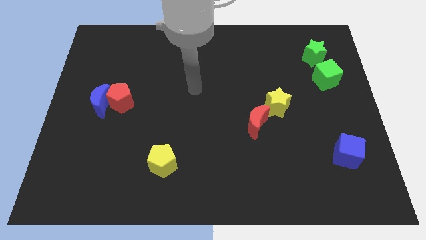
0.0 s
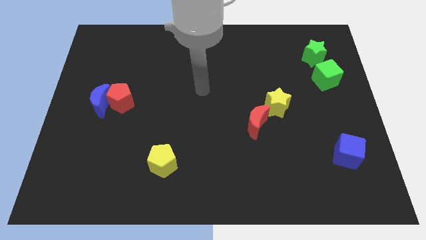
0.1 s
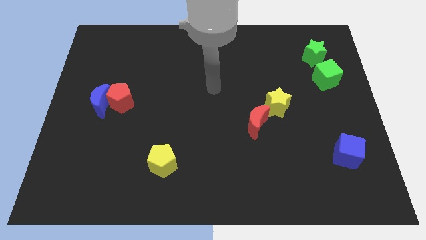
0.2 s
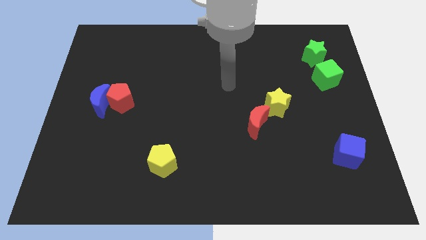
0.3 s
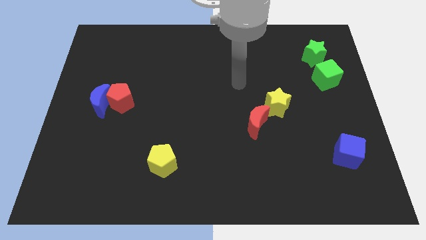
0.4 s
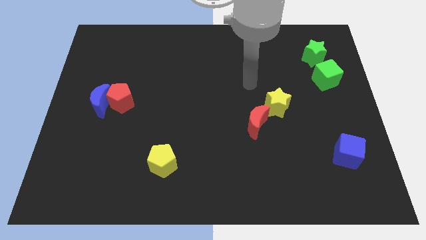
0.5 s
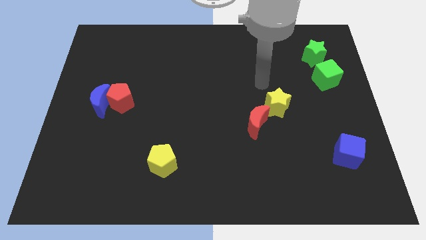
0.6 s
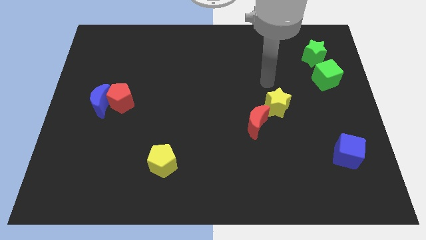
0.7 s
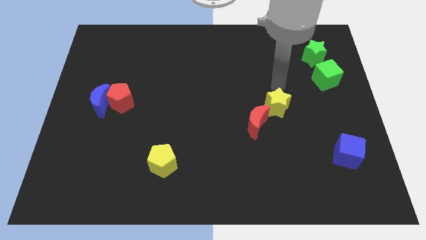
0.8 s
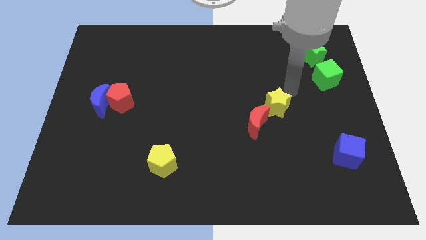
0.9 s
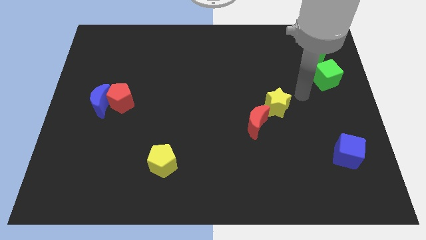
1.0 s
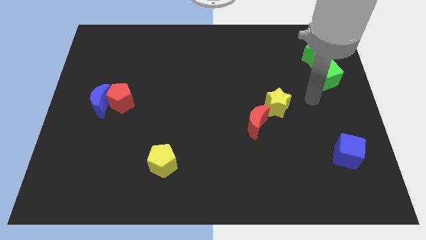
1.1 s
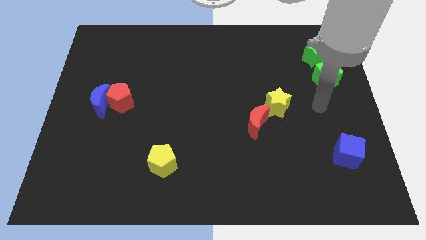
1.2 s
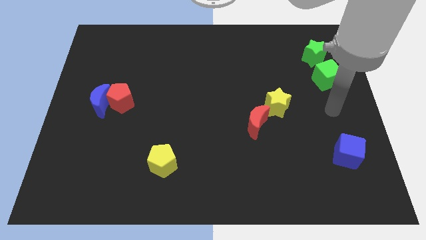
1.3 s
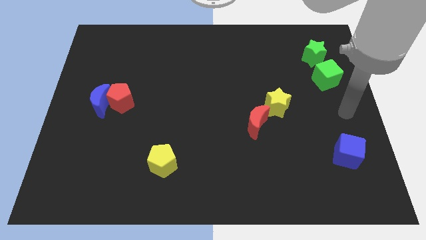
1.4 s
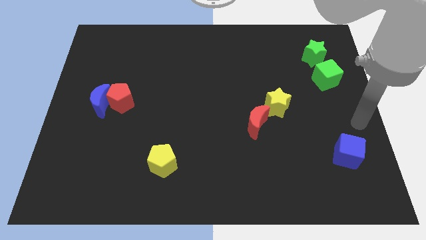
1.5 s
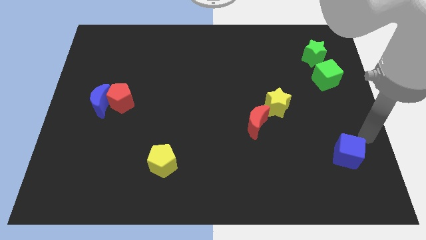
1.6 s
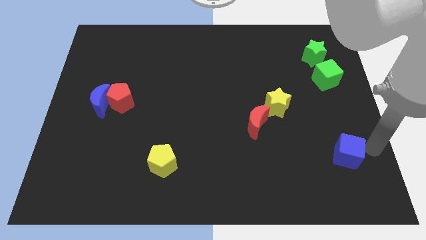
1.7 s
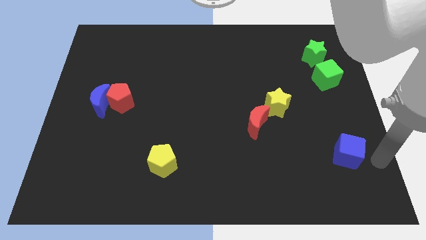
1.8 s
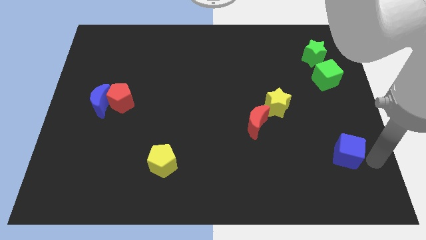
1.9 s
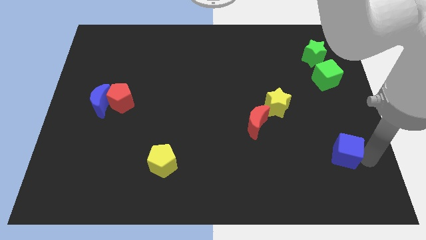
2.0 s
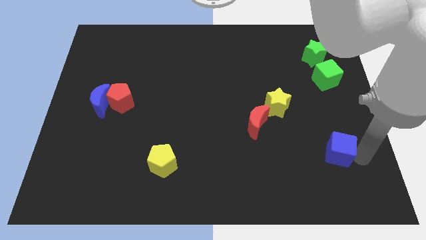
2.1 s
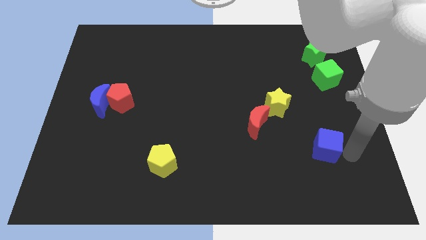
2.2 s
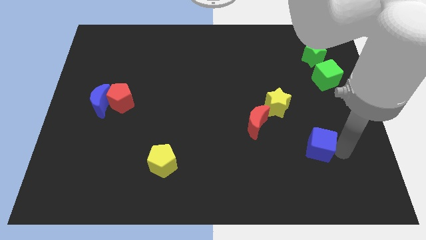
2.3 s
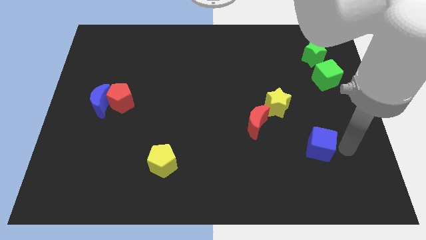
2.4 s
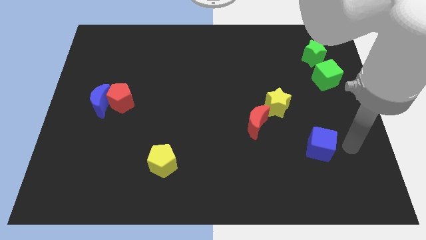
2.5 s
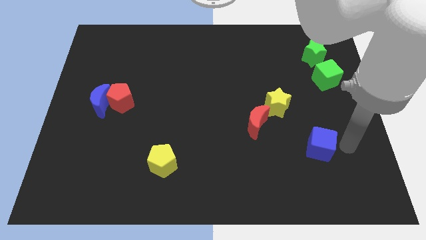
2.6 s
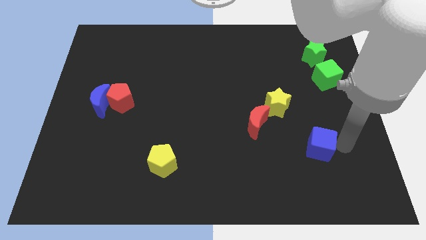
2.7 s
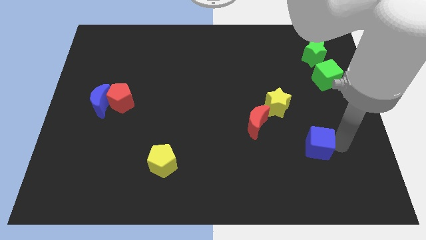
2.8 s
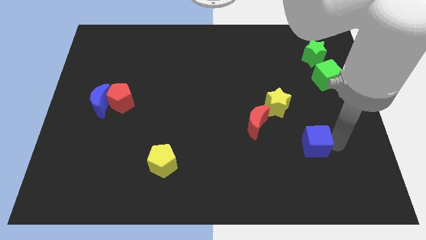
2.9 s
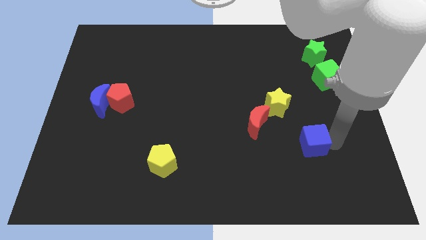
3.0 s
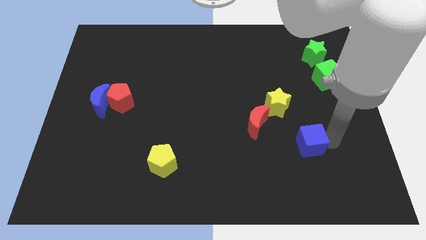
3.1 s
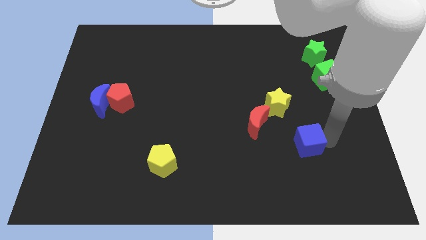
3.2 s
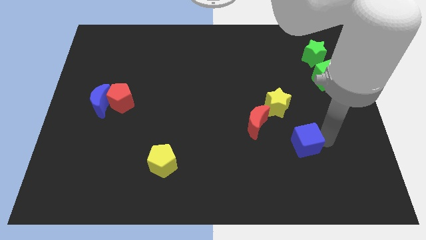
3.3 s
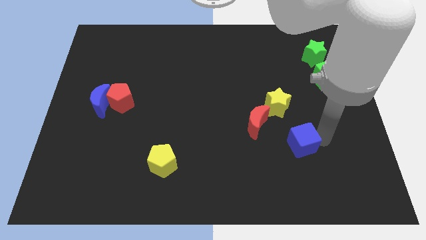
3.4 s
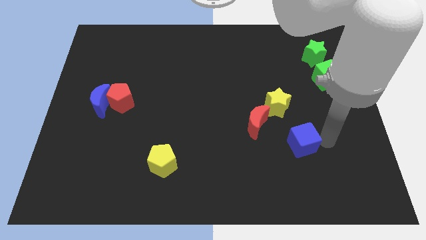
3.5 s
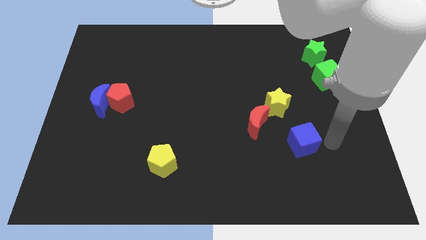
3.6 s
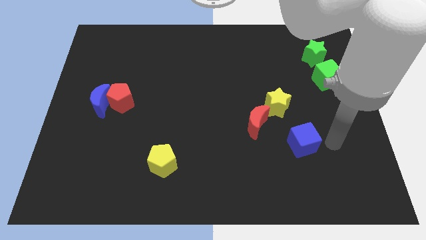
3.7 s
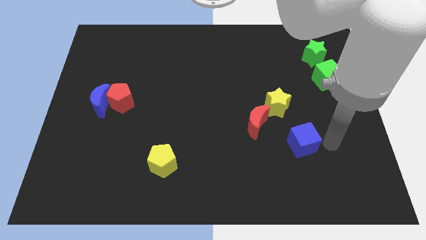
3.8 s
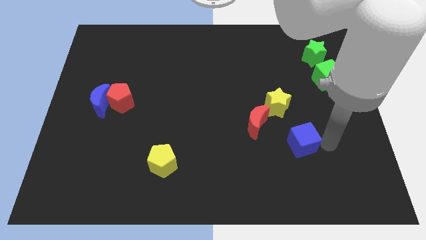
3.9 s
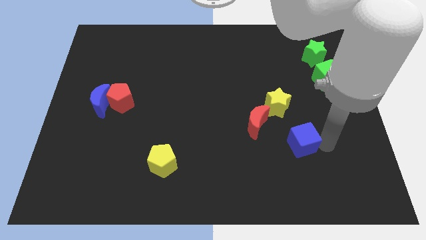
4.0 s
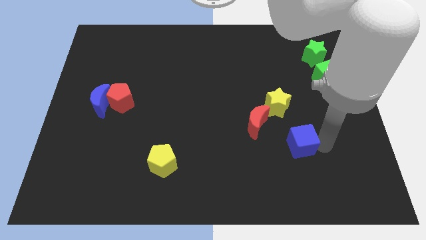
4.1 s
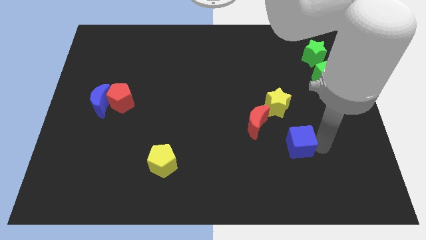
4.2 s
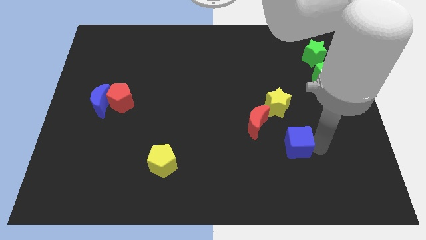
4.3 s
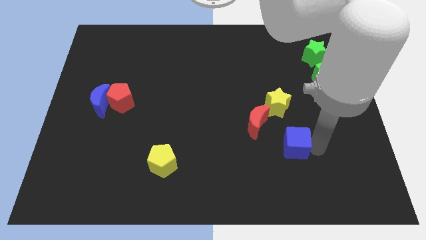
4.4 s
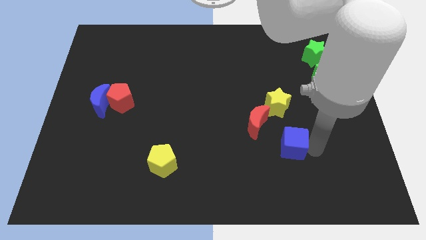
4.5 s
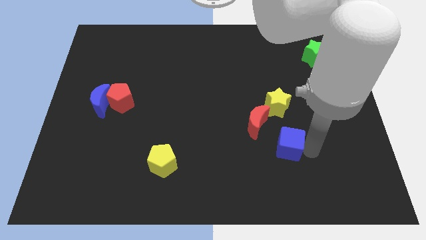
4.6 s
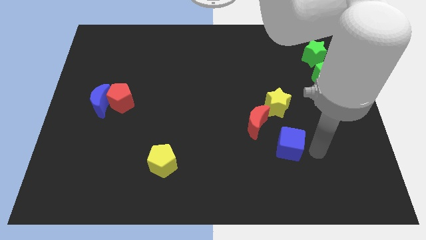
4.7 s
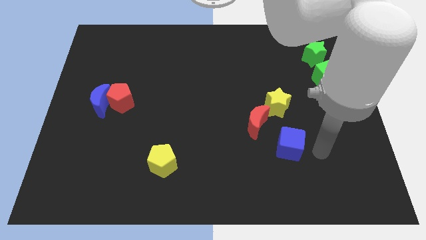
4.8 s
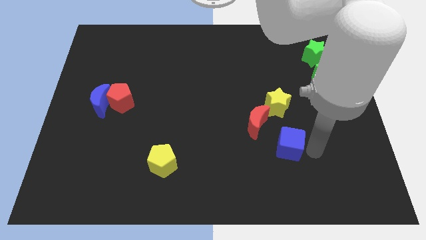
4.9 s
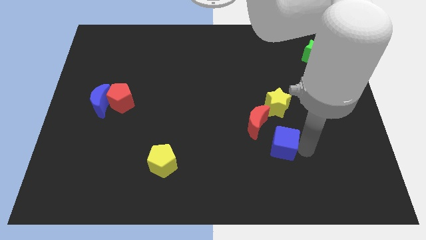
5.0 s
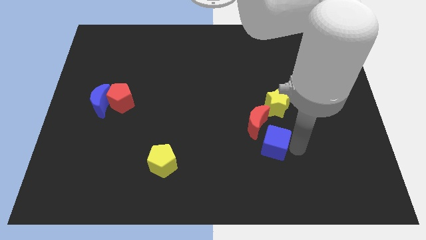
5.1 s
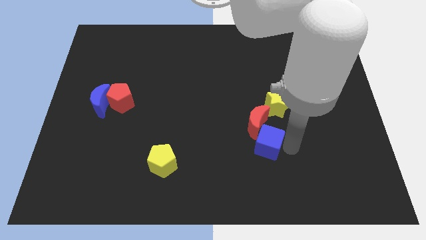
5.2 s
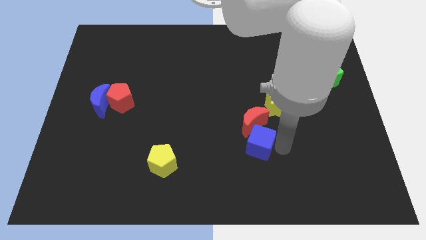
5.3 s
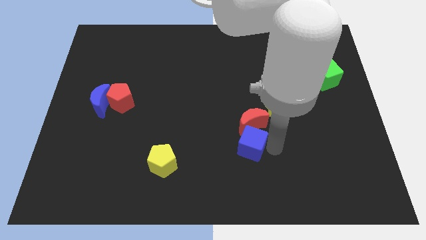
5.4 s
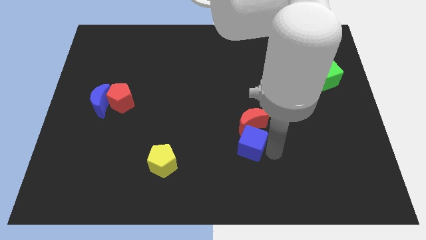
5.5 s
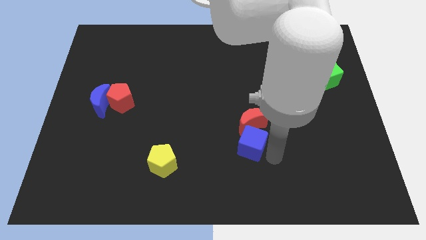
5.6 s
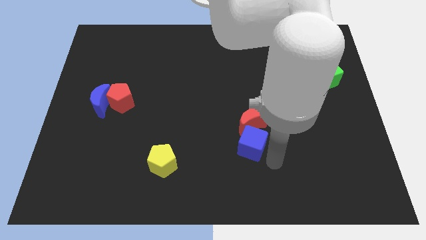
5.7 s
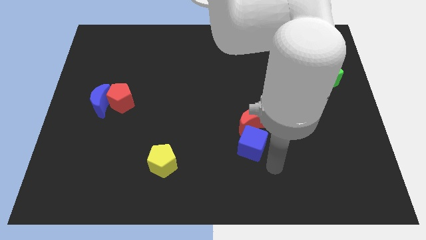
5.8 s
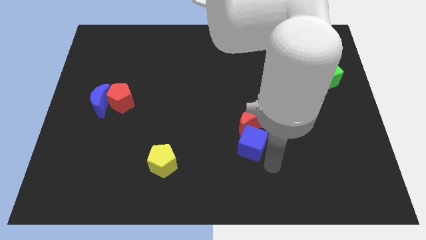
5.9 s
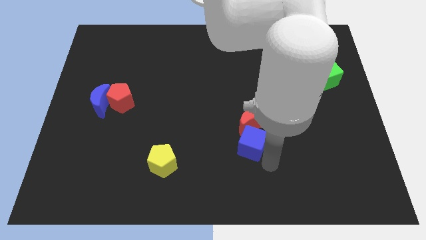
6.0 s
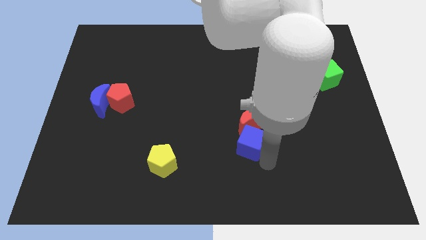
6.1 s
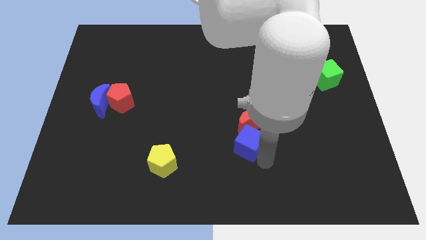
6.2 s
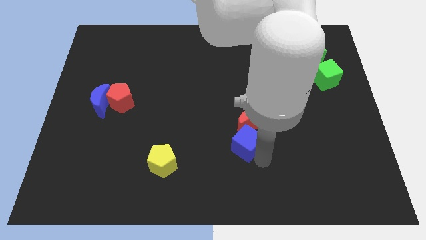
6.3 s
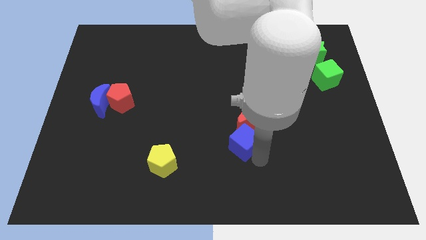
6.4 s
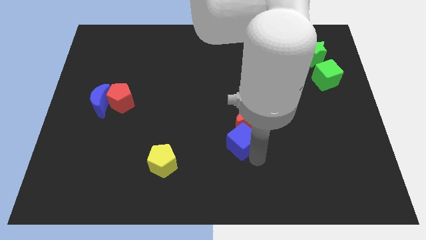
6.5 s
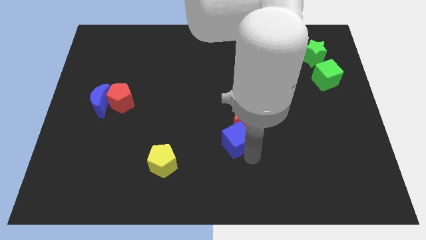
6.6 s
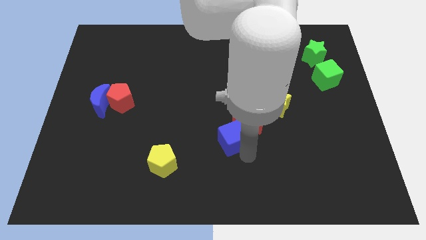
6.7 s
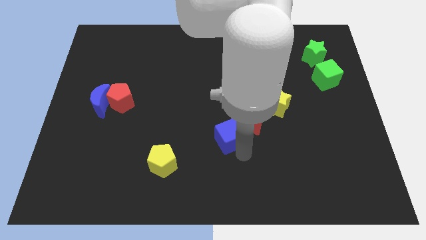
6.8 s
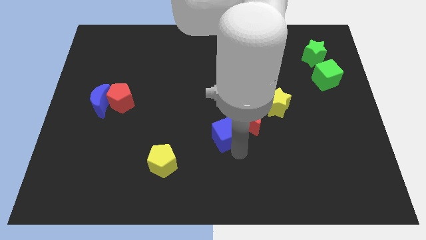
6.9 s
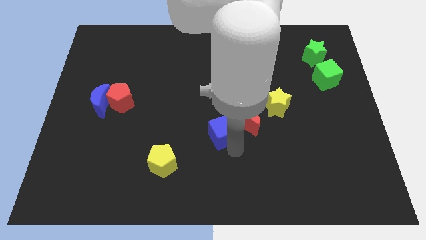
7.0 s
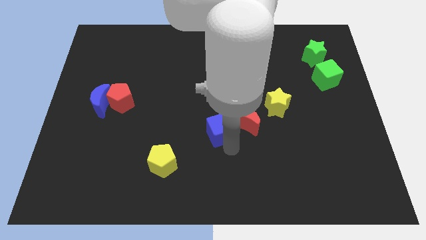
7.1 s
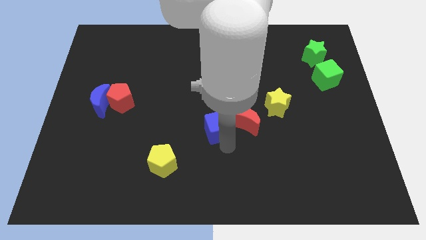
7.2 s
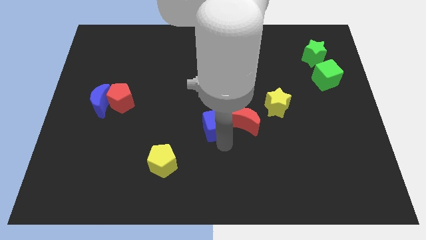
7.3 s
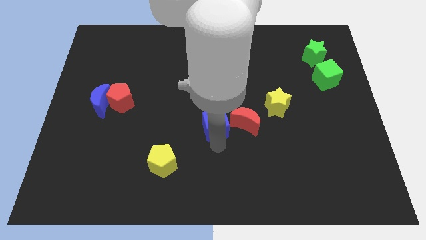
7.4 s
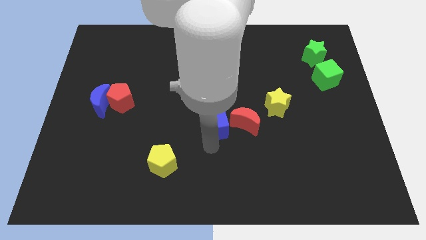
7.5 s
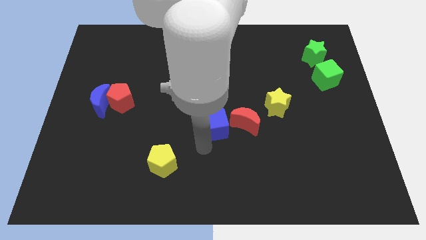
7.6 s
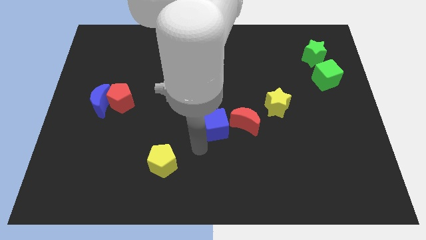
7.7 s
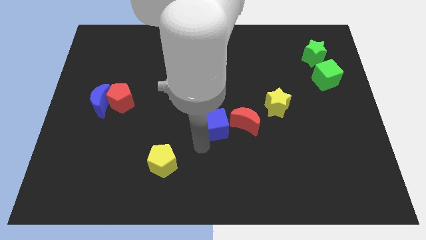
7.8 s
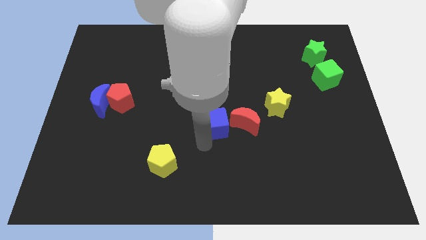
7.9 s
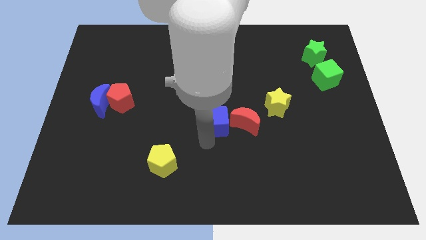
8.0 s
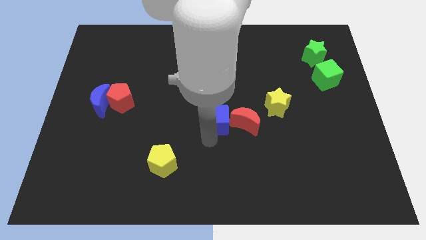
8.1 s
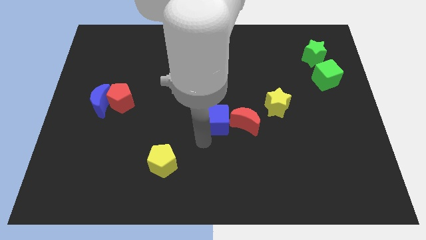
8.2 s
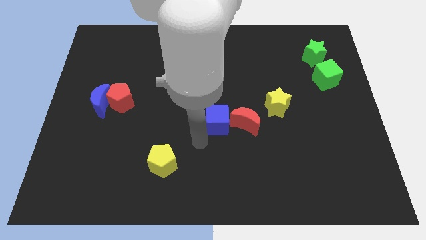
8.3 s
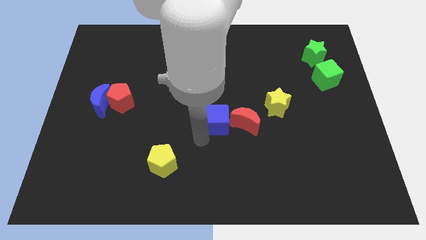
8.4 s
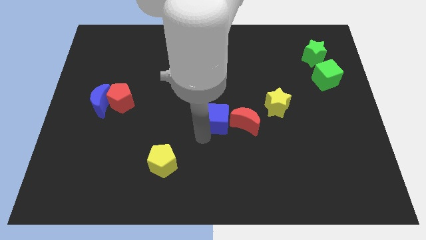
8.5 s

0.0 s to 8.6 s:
put the blue cube to the left side of the yellow star
